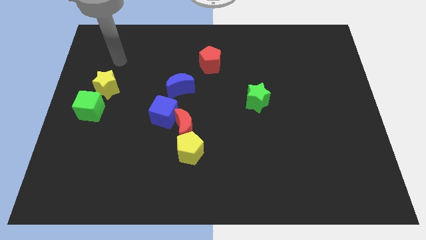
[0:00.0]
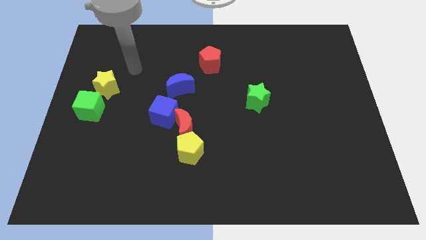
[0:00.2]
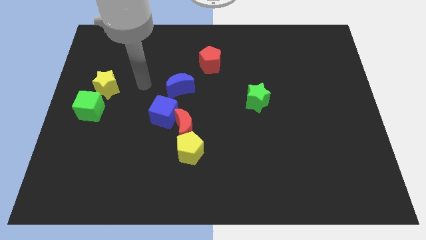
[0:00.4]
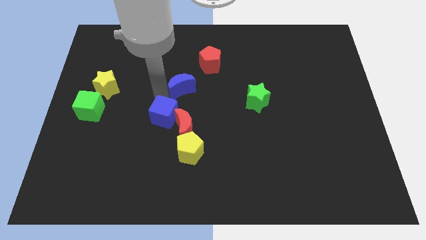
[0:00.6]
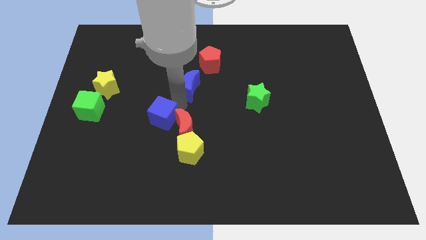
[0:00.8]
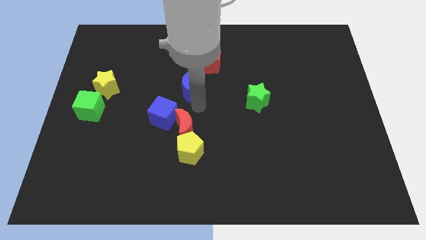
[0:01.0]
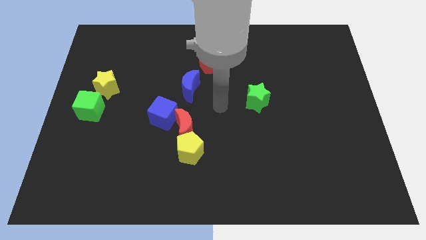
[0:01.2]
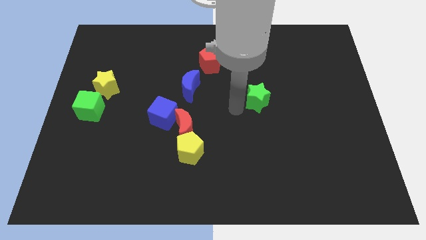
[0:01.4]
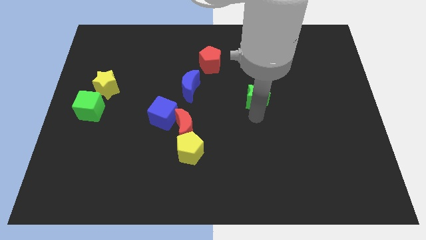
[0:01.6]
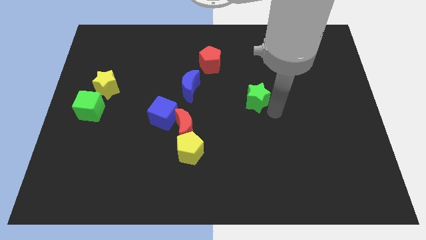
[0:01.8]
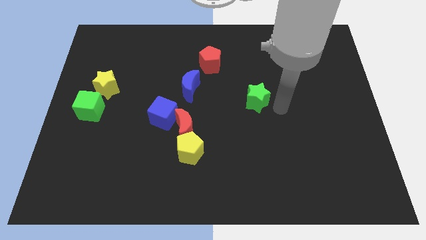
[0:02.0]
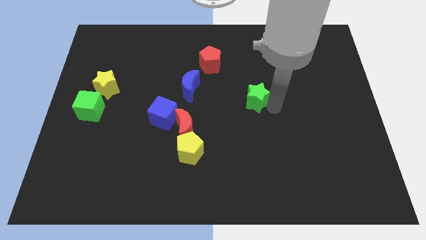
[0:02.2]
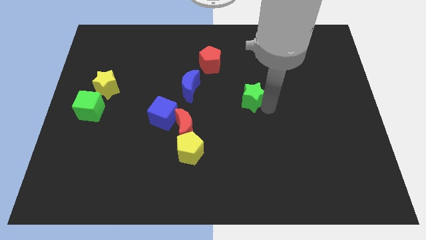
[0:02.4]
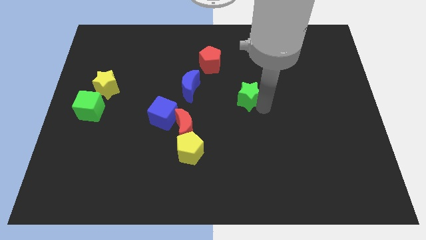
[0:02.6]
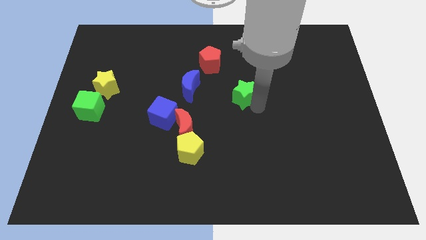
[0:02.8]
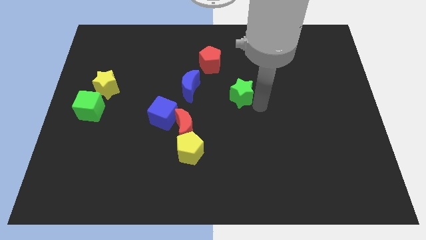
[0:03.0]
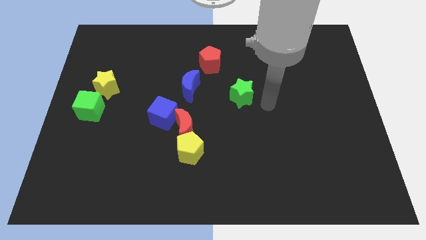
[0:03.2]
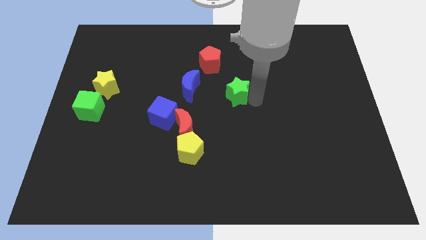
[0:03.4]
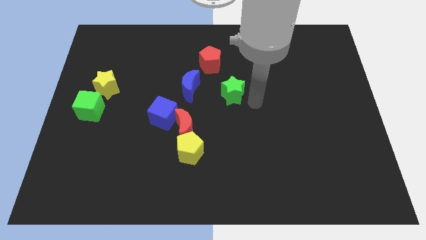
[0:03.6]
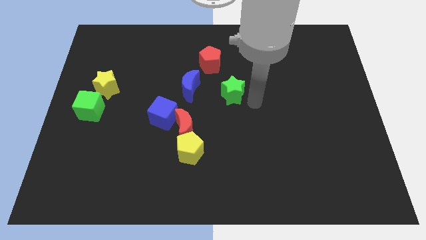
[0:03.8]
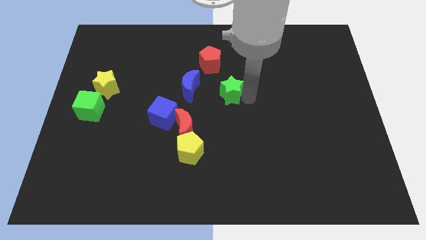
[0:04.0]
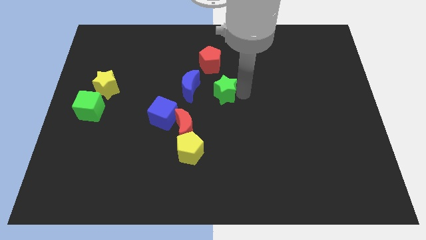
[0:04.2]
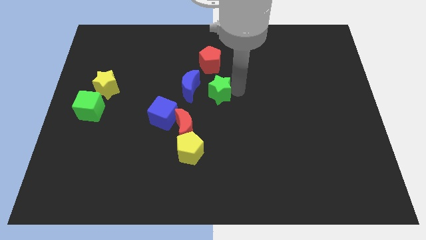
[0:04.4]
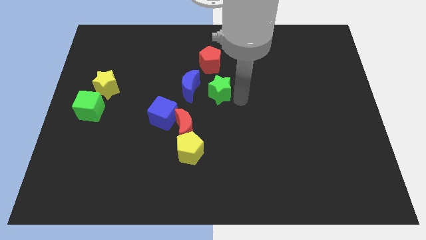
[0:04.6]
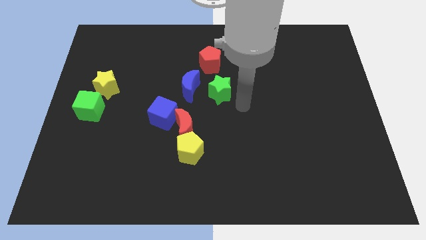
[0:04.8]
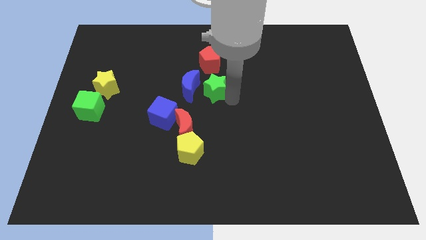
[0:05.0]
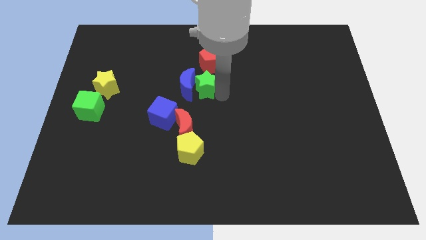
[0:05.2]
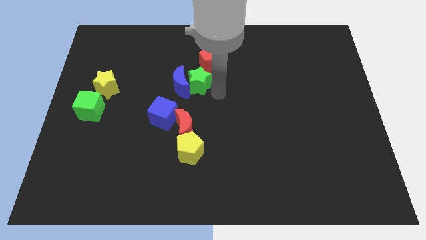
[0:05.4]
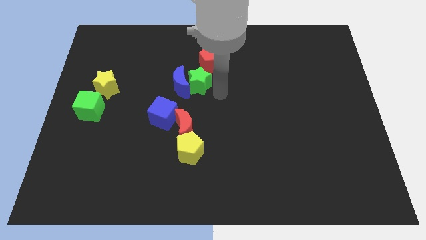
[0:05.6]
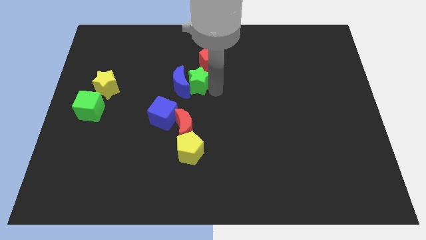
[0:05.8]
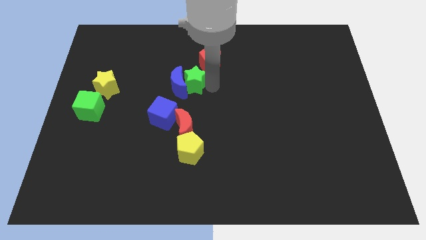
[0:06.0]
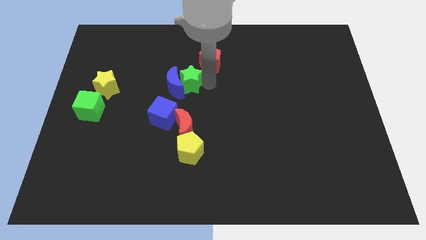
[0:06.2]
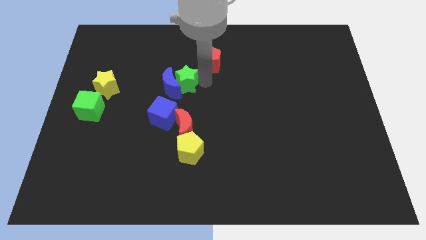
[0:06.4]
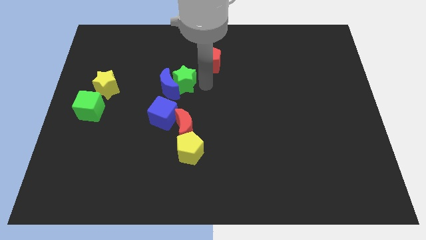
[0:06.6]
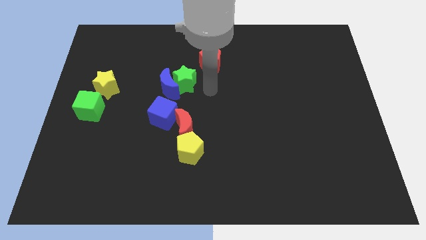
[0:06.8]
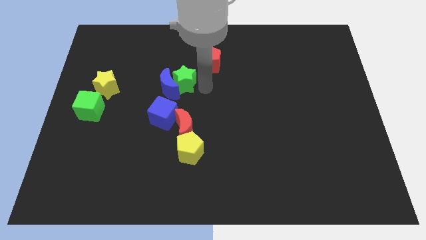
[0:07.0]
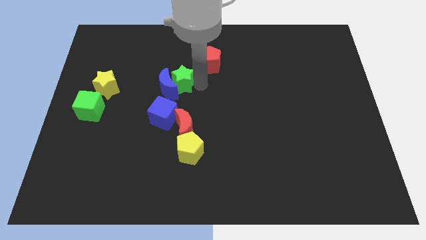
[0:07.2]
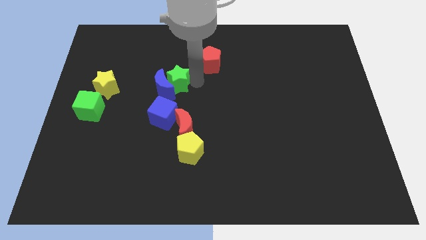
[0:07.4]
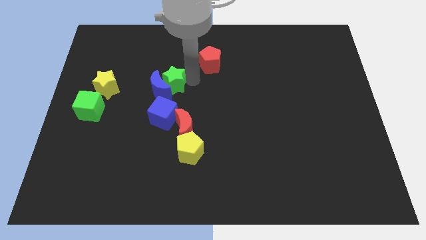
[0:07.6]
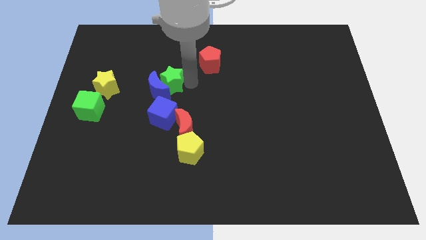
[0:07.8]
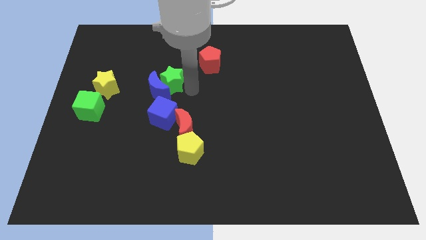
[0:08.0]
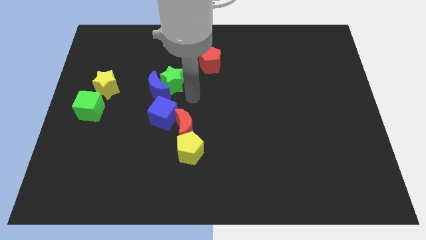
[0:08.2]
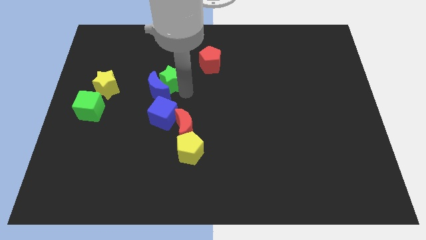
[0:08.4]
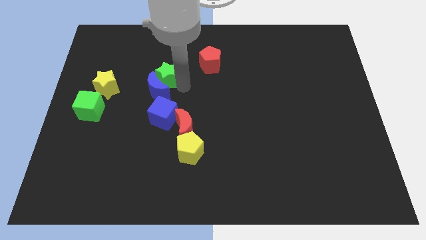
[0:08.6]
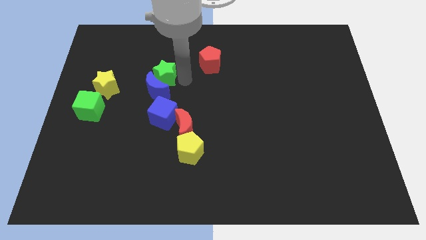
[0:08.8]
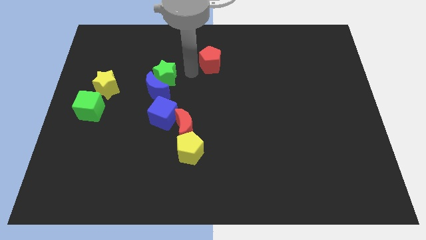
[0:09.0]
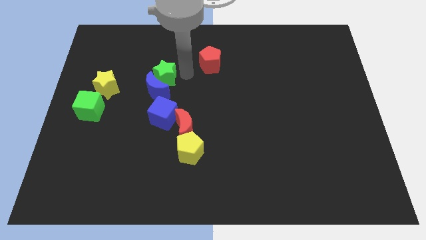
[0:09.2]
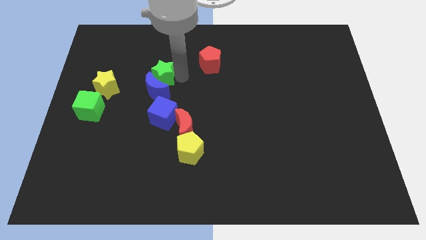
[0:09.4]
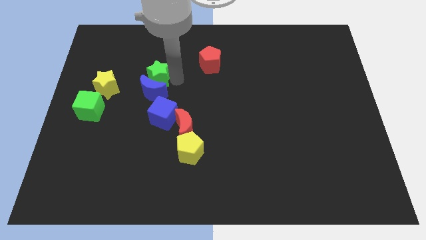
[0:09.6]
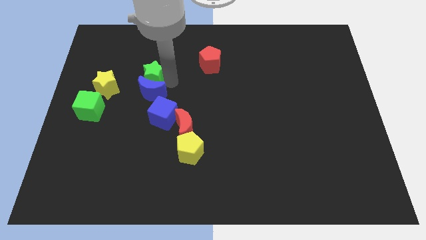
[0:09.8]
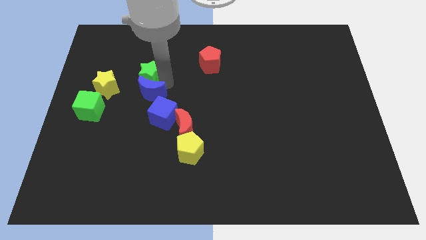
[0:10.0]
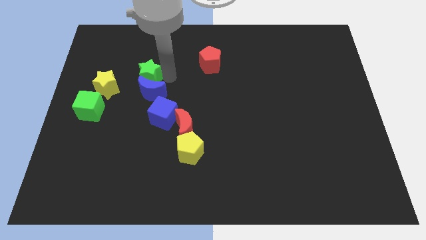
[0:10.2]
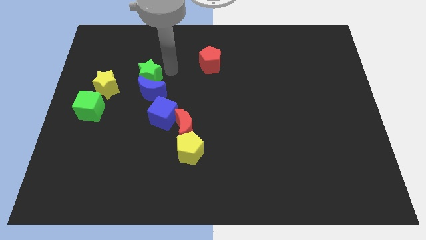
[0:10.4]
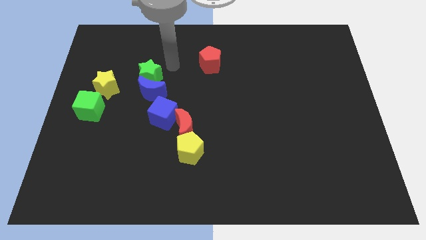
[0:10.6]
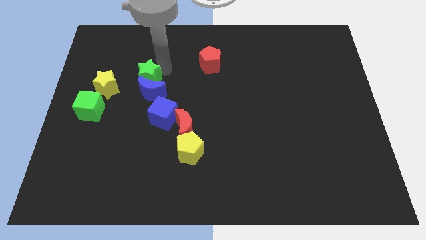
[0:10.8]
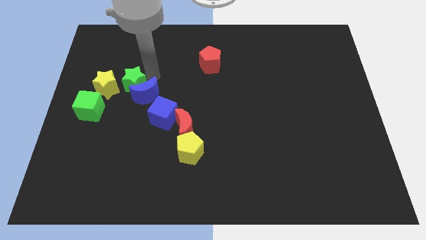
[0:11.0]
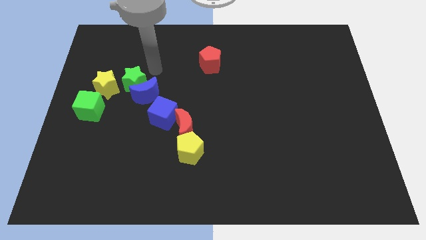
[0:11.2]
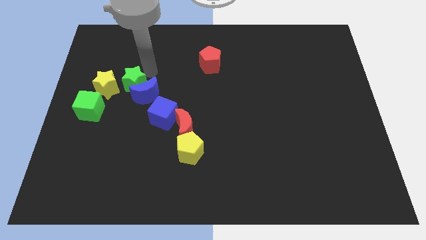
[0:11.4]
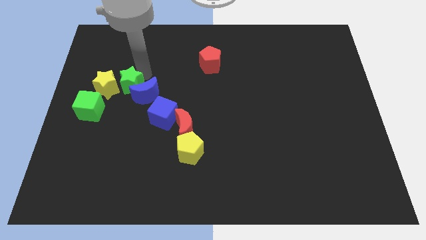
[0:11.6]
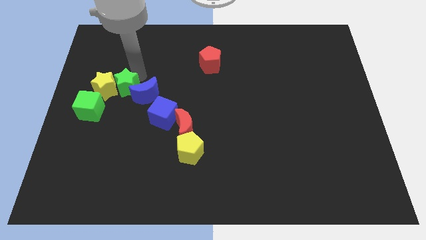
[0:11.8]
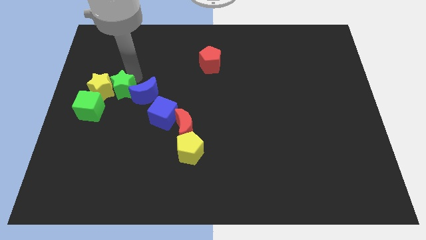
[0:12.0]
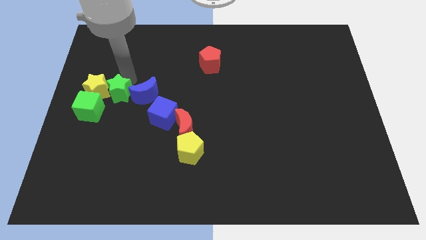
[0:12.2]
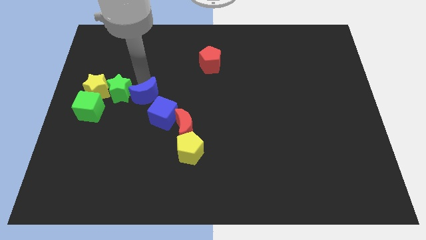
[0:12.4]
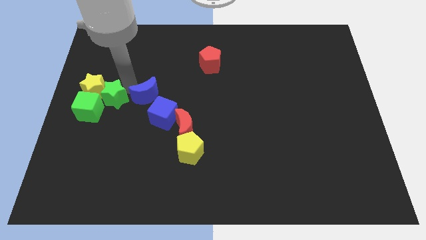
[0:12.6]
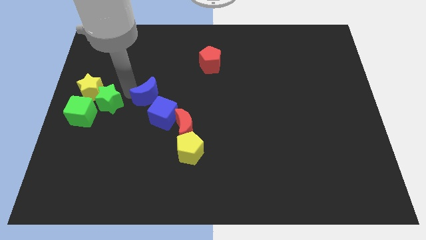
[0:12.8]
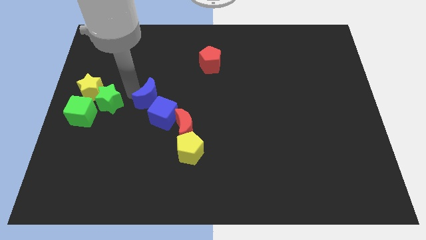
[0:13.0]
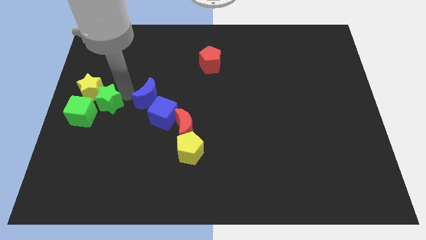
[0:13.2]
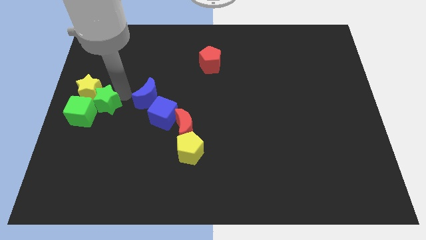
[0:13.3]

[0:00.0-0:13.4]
move the green star next to the green cube
